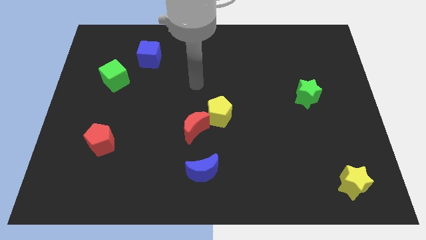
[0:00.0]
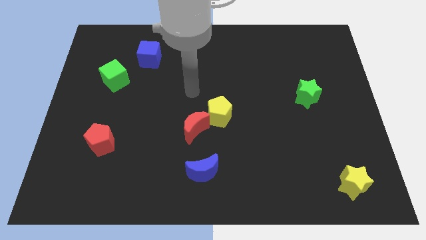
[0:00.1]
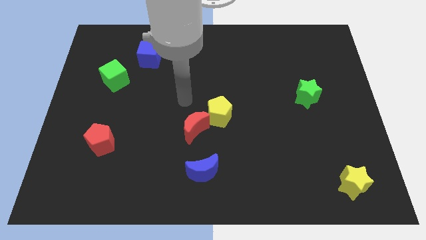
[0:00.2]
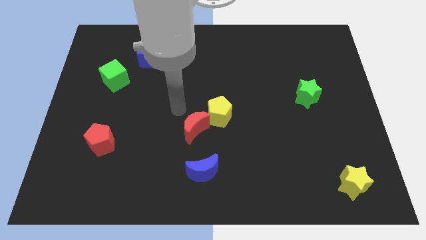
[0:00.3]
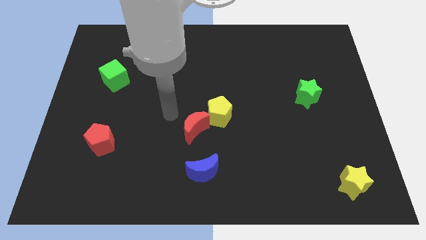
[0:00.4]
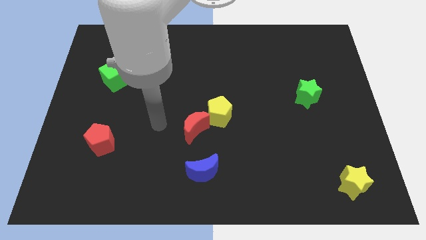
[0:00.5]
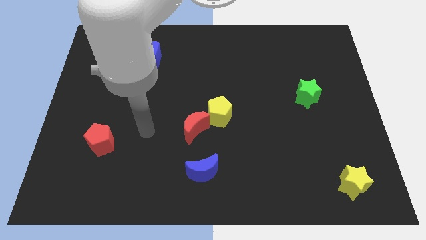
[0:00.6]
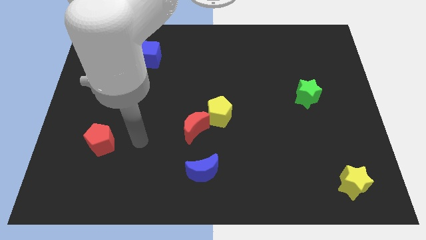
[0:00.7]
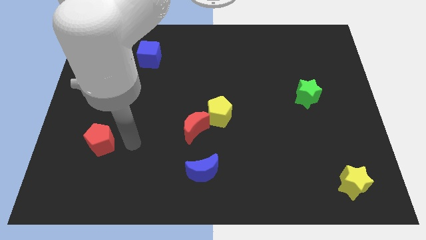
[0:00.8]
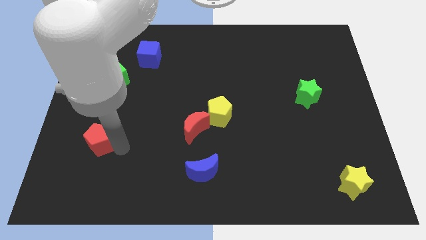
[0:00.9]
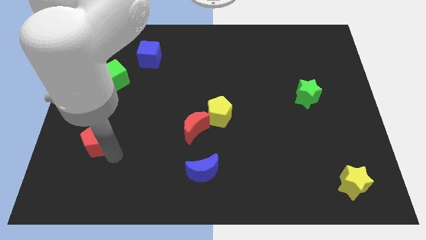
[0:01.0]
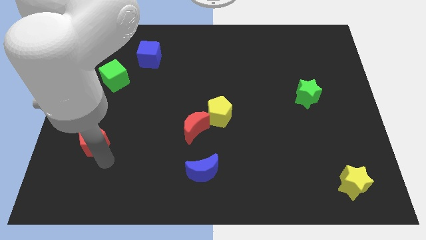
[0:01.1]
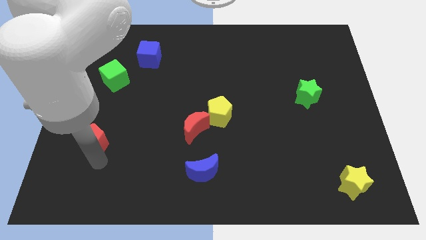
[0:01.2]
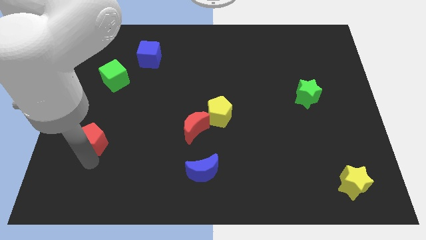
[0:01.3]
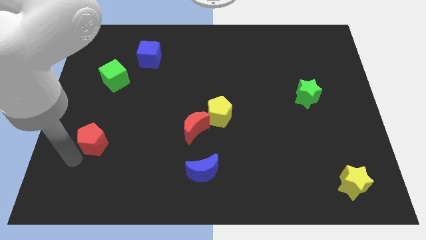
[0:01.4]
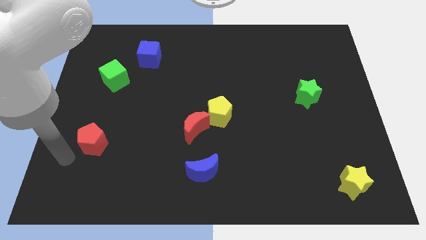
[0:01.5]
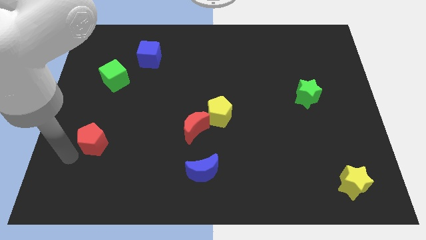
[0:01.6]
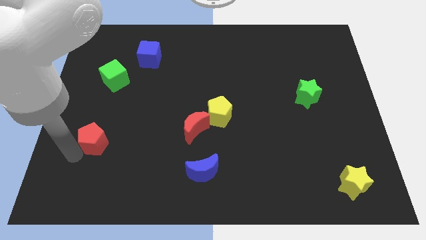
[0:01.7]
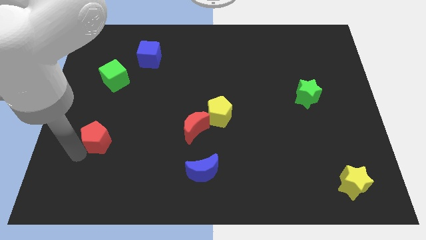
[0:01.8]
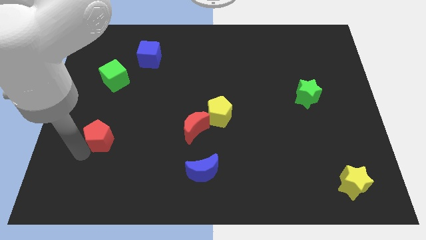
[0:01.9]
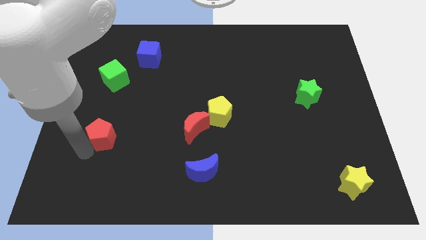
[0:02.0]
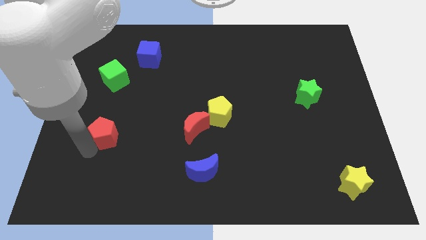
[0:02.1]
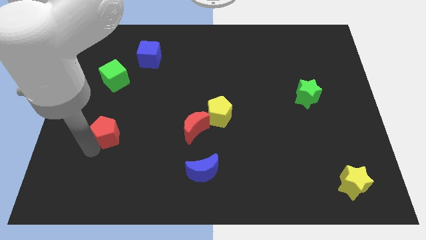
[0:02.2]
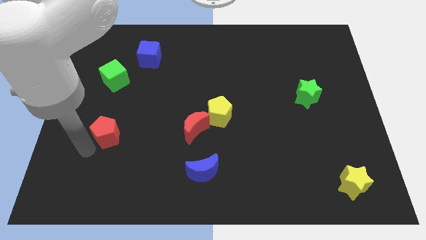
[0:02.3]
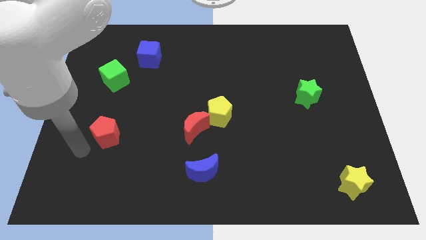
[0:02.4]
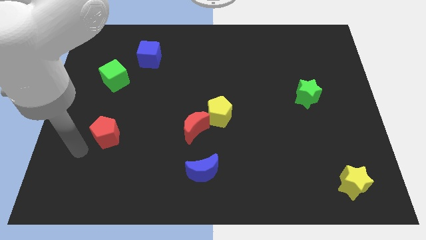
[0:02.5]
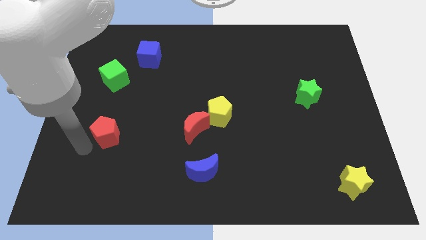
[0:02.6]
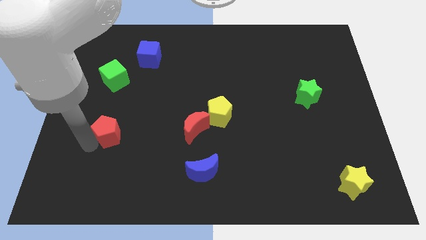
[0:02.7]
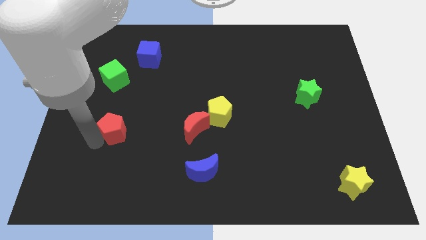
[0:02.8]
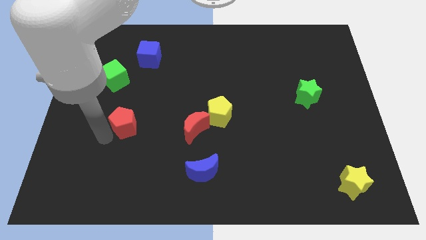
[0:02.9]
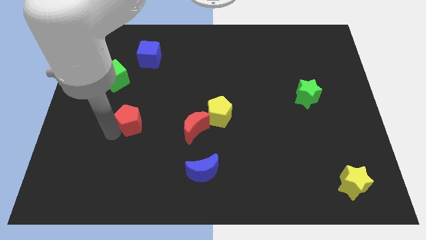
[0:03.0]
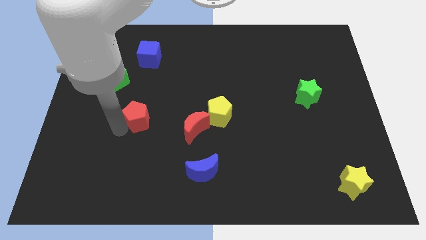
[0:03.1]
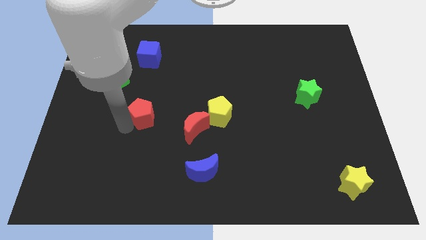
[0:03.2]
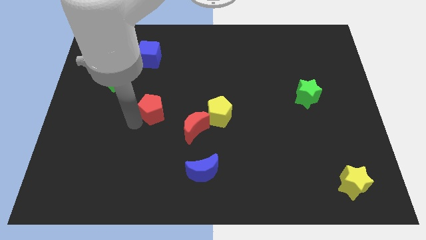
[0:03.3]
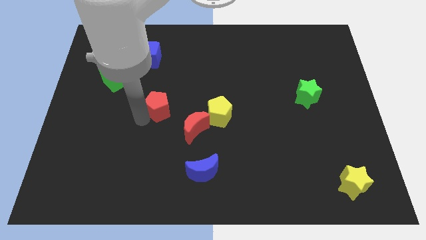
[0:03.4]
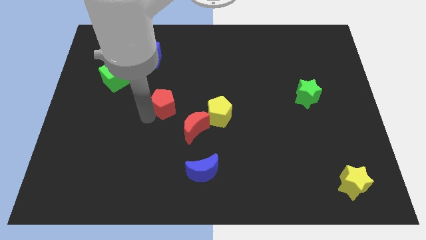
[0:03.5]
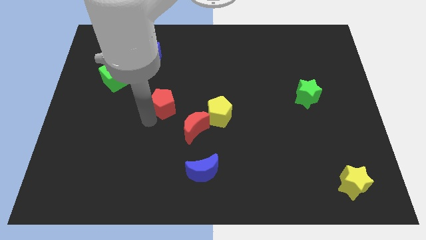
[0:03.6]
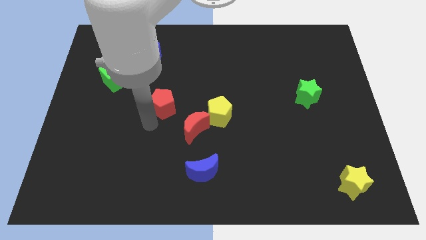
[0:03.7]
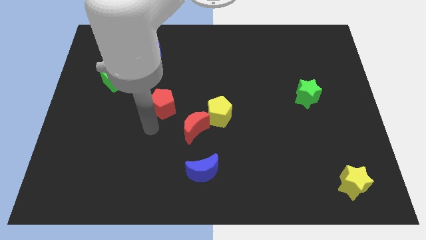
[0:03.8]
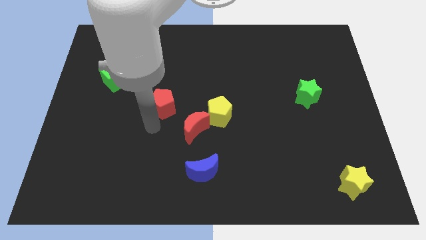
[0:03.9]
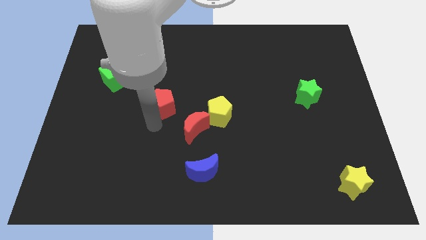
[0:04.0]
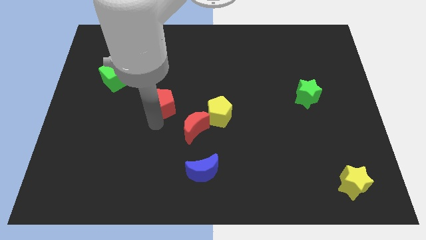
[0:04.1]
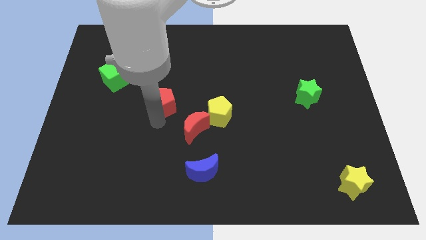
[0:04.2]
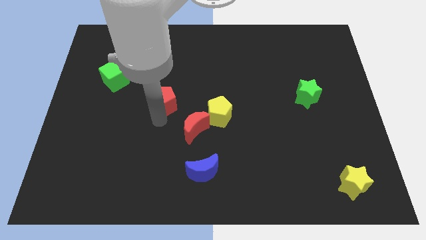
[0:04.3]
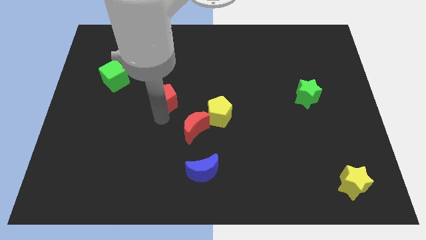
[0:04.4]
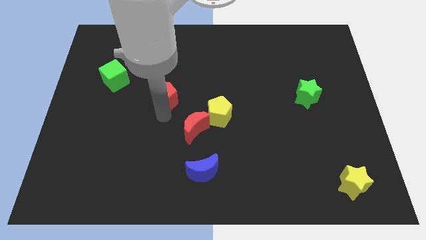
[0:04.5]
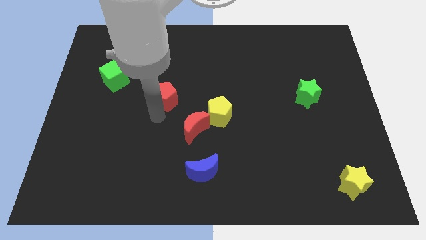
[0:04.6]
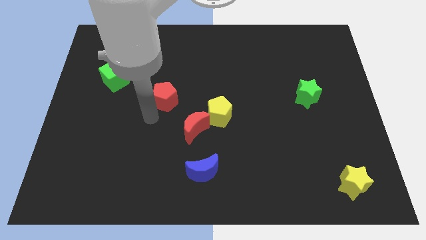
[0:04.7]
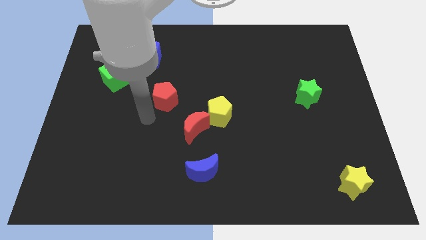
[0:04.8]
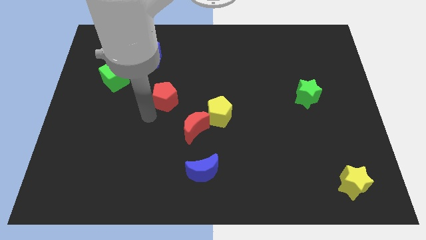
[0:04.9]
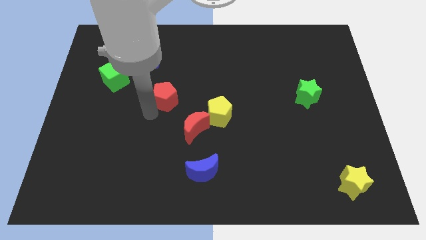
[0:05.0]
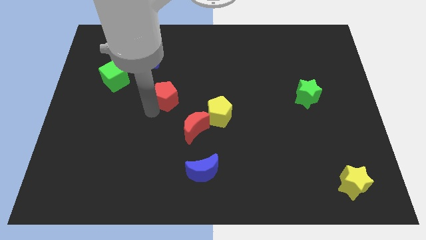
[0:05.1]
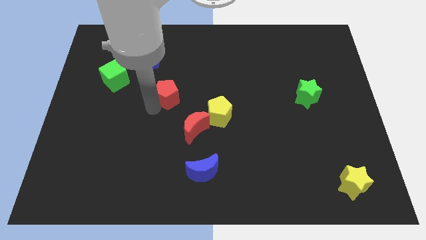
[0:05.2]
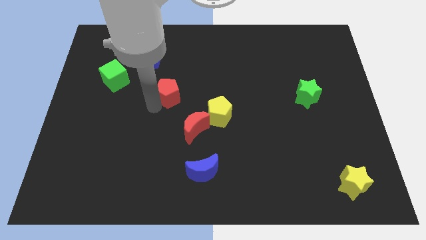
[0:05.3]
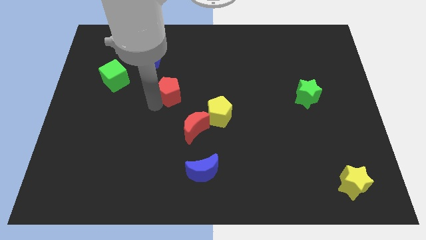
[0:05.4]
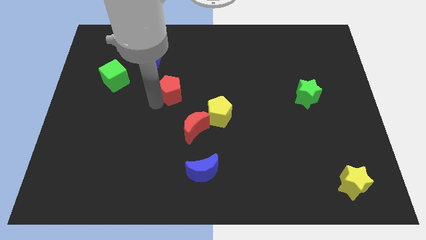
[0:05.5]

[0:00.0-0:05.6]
slide the red pentagon diagonally upwards and to the right

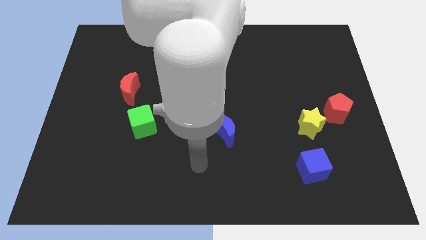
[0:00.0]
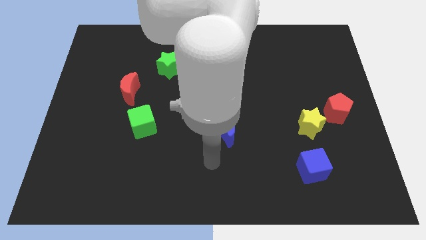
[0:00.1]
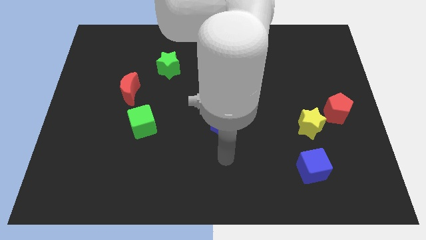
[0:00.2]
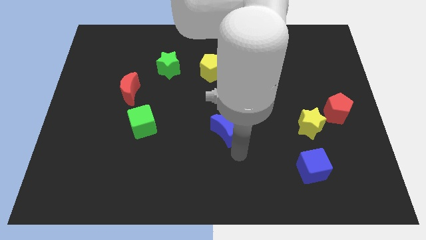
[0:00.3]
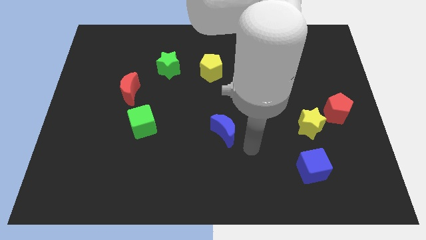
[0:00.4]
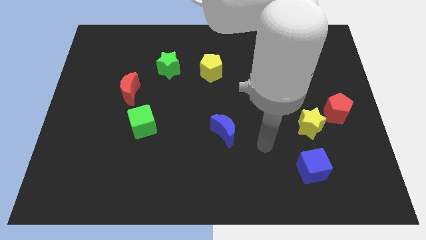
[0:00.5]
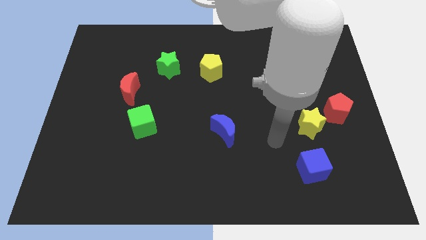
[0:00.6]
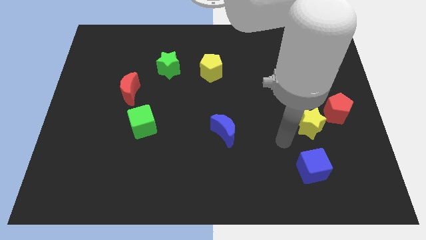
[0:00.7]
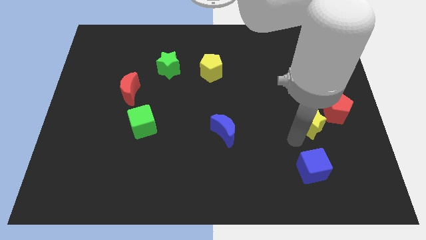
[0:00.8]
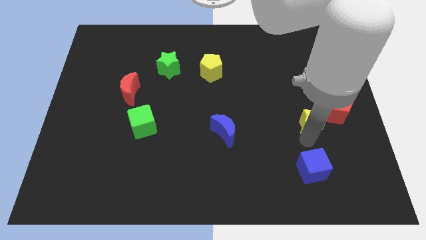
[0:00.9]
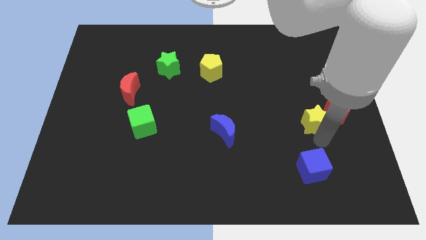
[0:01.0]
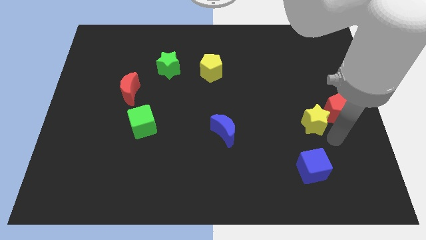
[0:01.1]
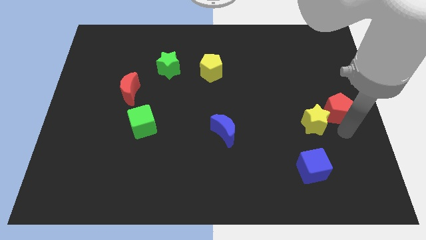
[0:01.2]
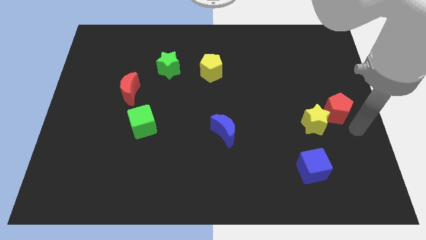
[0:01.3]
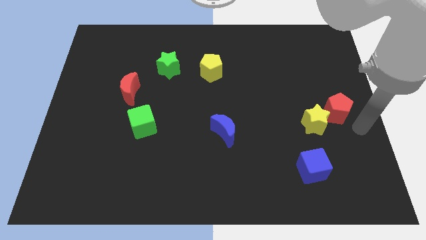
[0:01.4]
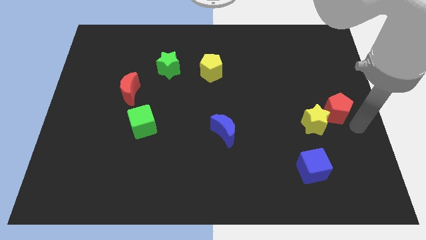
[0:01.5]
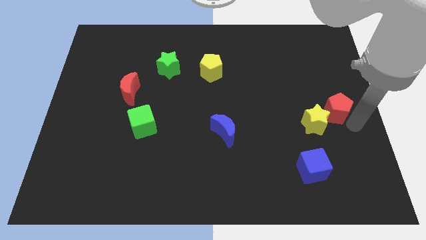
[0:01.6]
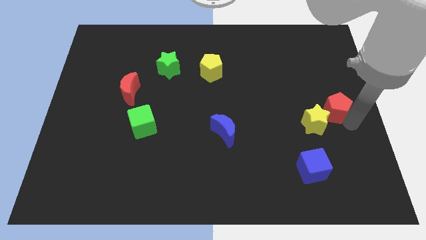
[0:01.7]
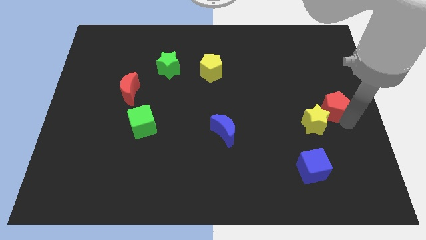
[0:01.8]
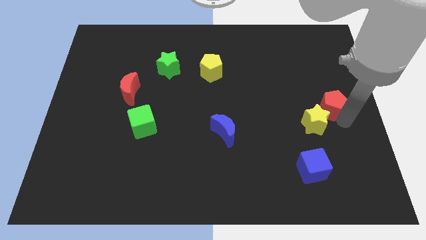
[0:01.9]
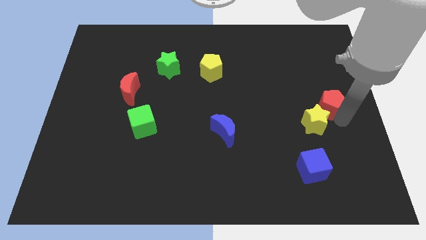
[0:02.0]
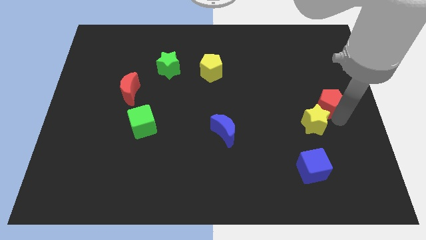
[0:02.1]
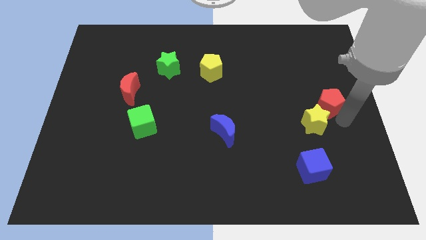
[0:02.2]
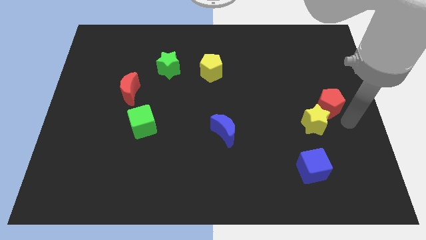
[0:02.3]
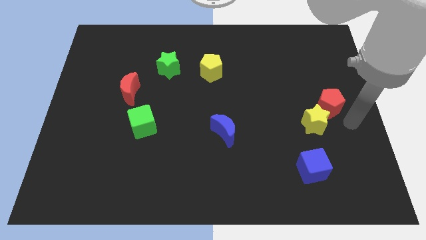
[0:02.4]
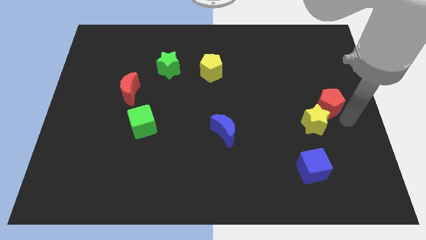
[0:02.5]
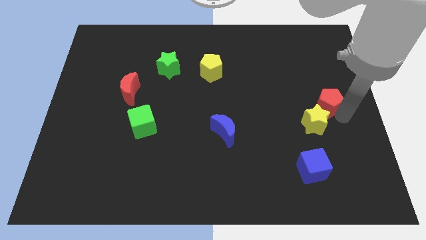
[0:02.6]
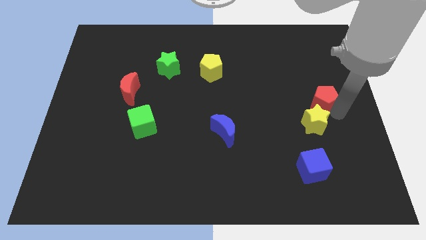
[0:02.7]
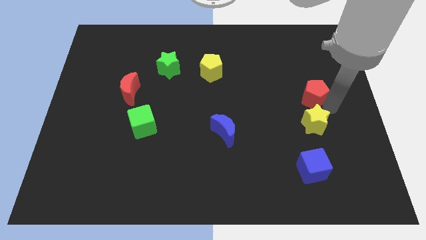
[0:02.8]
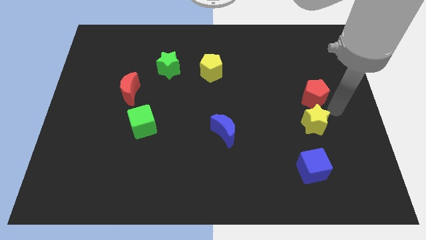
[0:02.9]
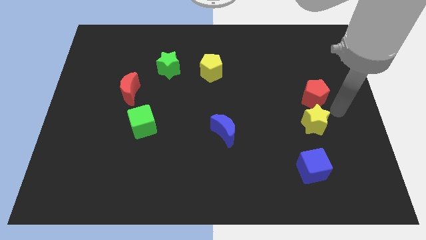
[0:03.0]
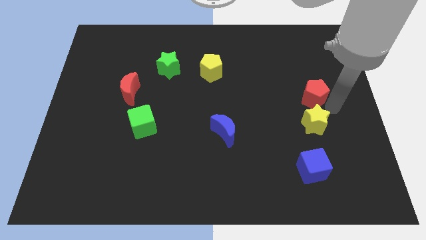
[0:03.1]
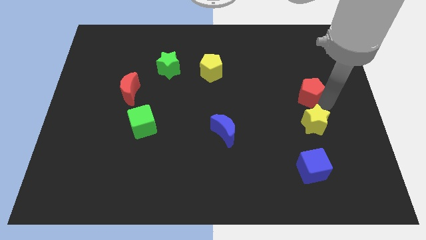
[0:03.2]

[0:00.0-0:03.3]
slightly push the red pentagon upwards and to the left
